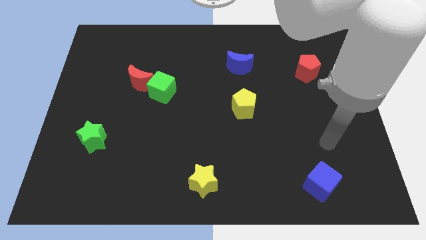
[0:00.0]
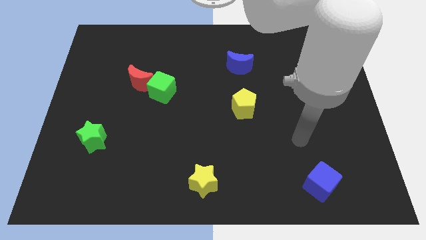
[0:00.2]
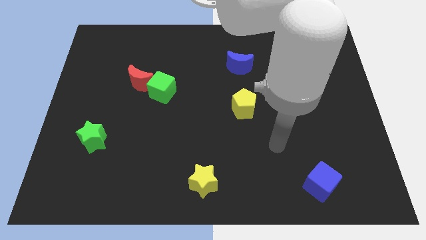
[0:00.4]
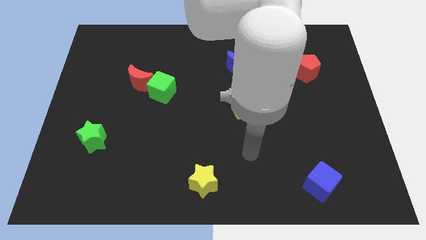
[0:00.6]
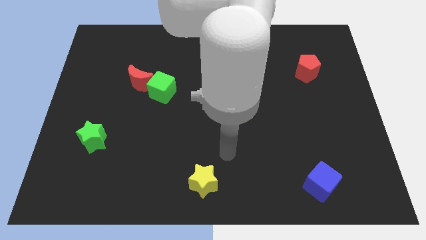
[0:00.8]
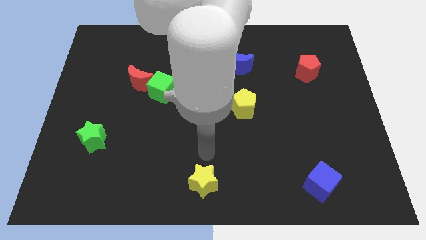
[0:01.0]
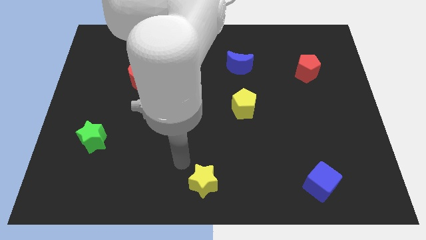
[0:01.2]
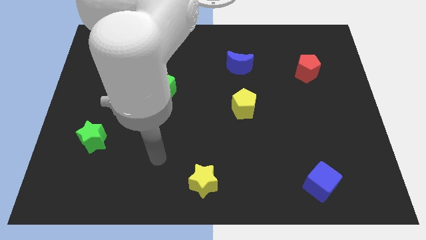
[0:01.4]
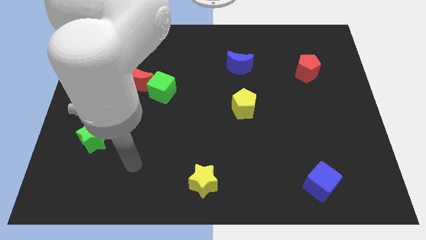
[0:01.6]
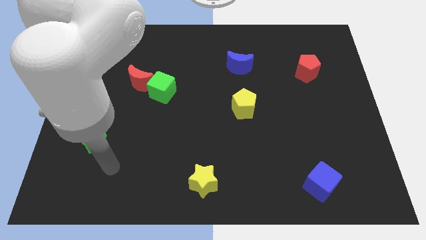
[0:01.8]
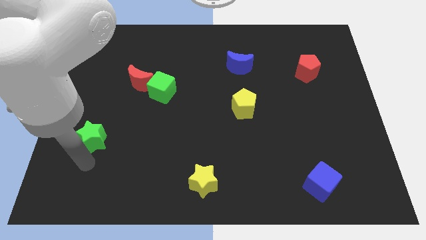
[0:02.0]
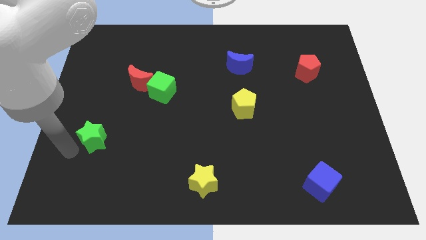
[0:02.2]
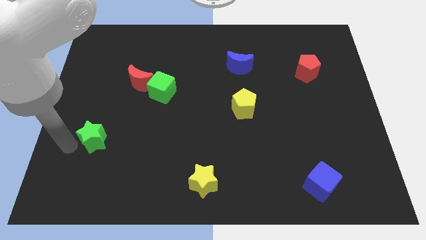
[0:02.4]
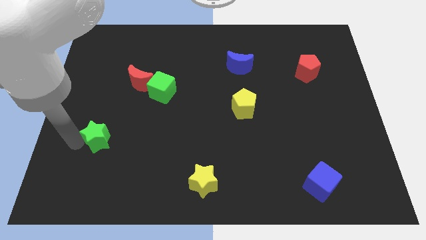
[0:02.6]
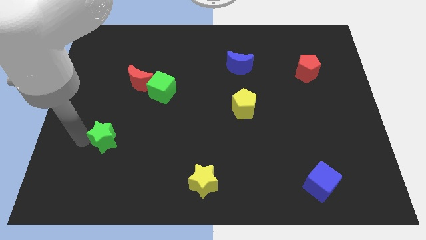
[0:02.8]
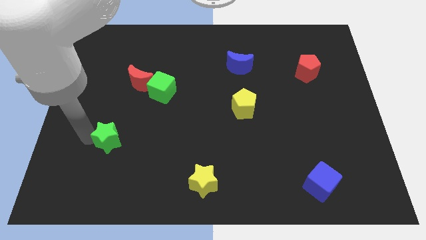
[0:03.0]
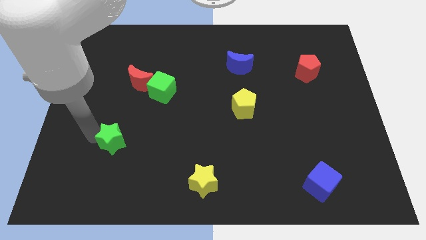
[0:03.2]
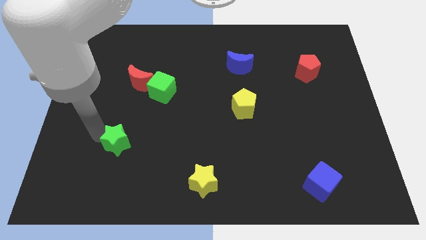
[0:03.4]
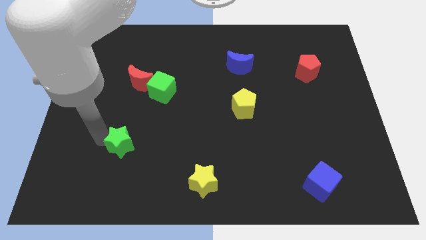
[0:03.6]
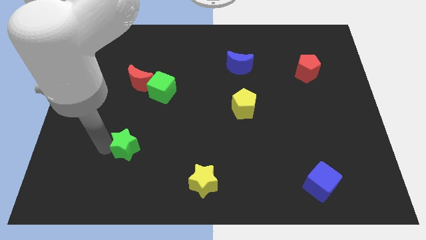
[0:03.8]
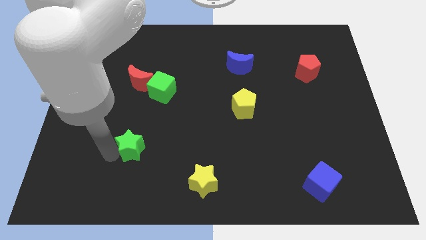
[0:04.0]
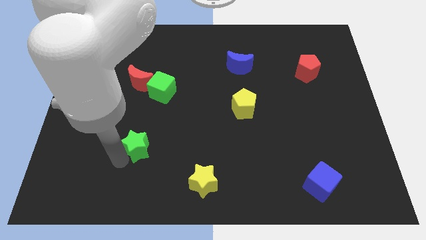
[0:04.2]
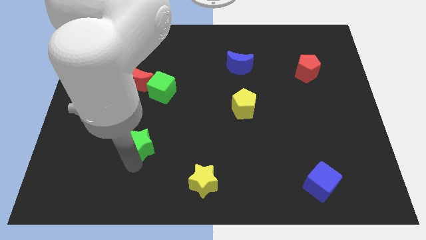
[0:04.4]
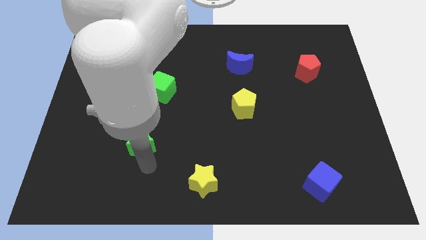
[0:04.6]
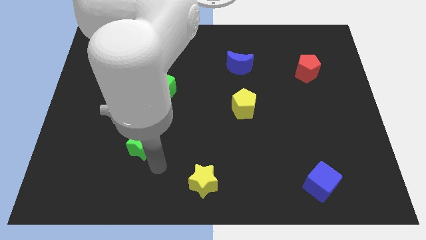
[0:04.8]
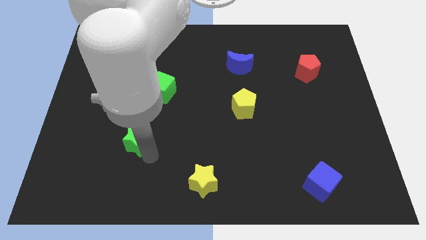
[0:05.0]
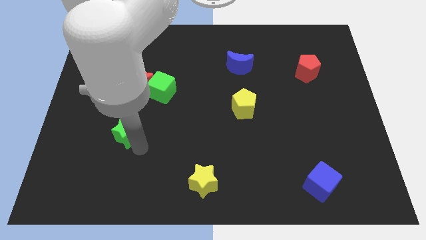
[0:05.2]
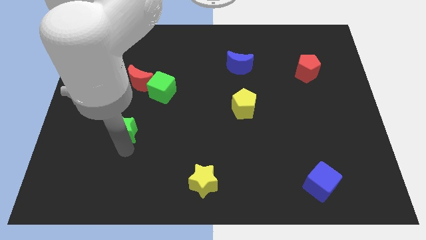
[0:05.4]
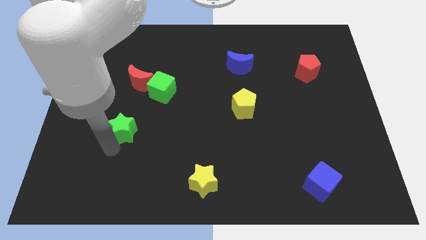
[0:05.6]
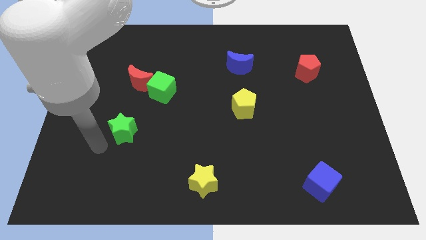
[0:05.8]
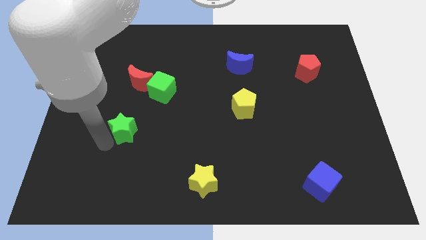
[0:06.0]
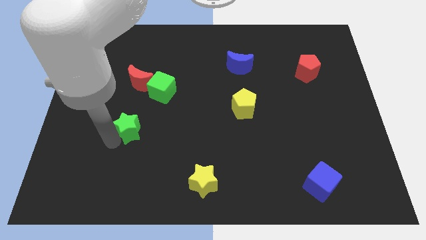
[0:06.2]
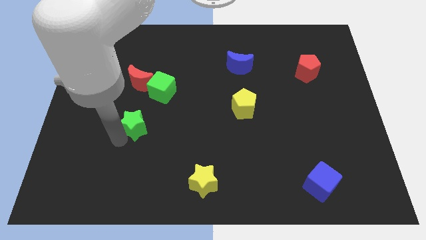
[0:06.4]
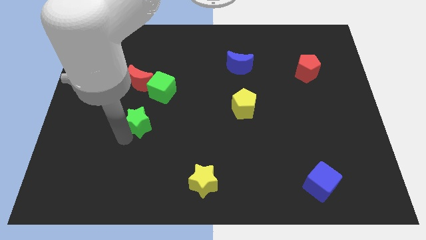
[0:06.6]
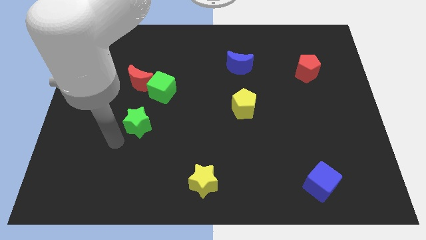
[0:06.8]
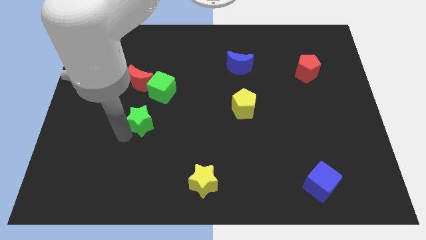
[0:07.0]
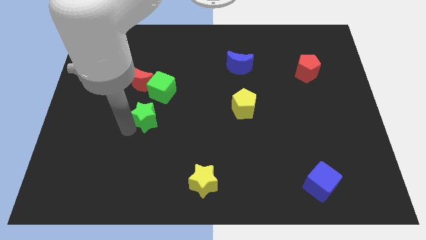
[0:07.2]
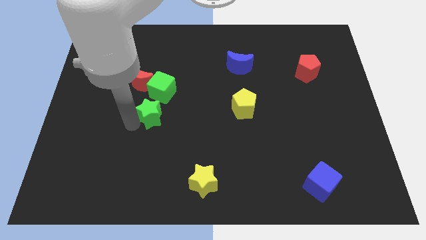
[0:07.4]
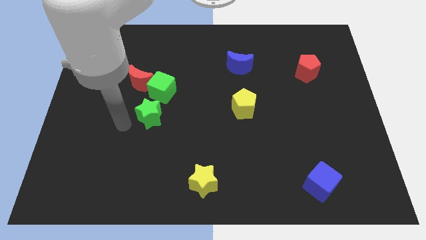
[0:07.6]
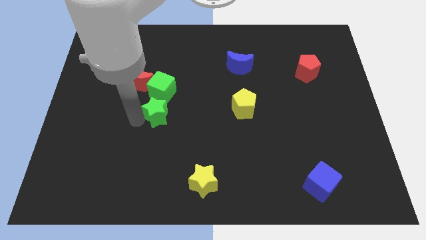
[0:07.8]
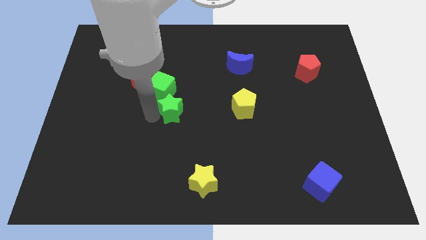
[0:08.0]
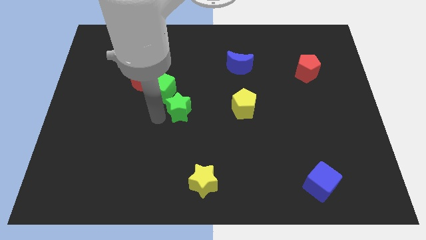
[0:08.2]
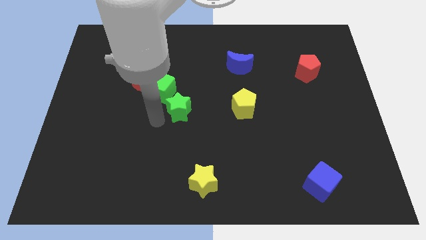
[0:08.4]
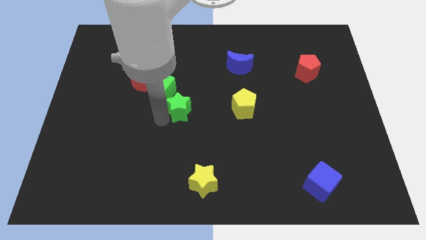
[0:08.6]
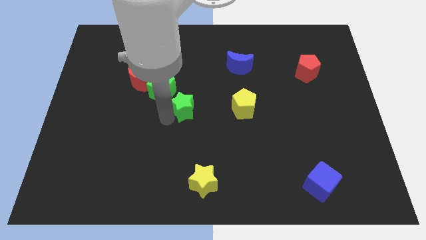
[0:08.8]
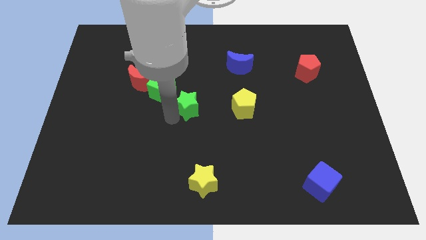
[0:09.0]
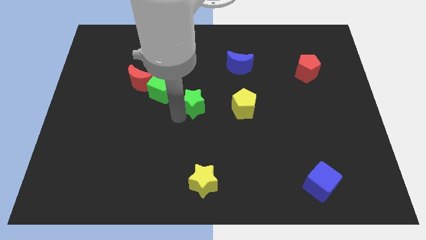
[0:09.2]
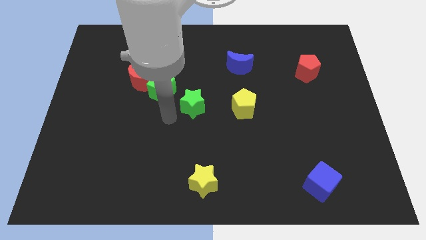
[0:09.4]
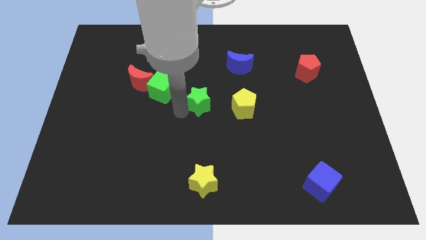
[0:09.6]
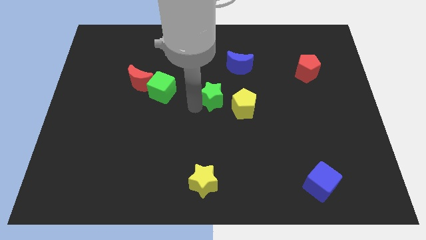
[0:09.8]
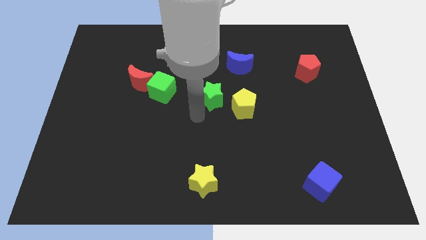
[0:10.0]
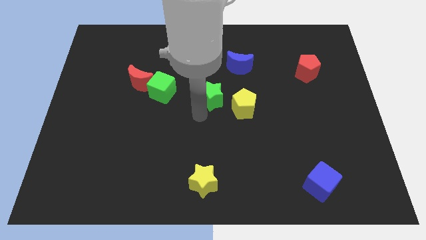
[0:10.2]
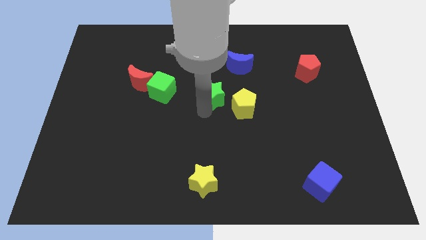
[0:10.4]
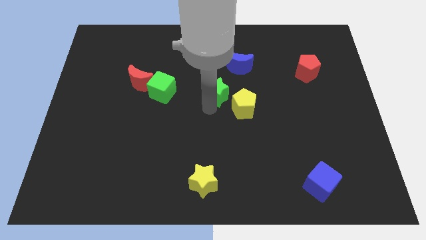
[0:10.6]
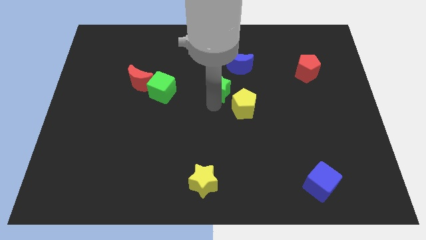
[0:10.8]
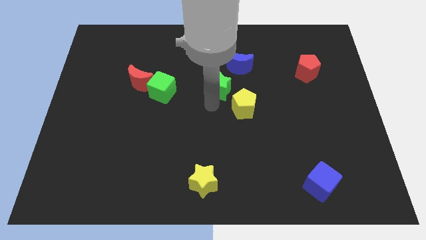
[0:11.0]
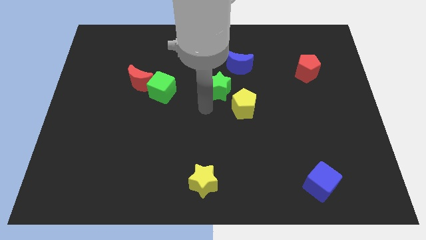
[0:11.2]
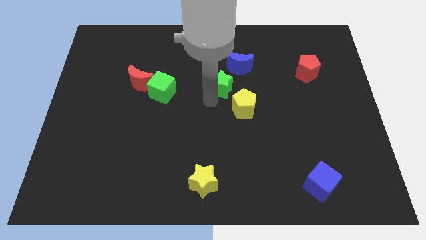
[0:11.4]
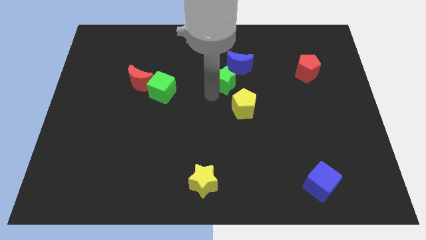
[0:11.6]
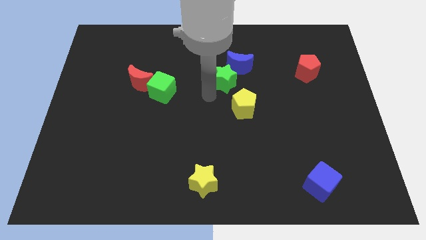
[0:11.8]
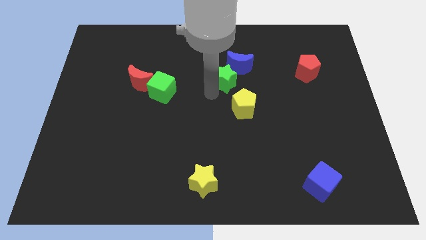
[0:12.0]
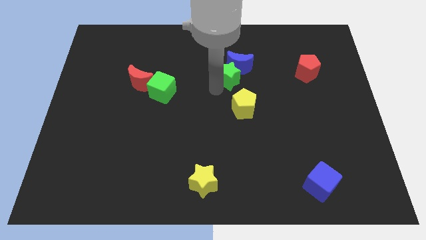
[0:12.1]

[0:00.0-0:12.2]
put the green star close to the blue moon
